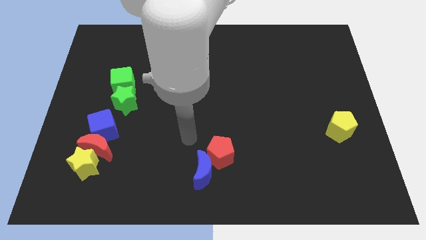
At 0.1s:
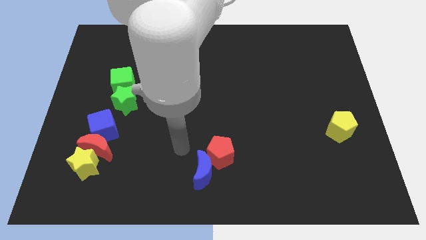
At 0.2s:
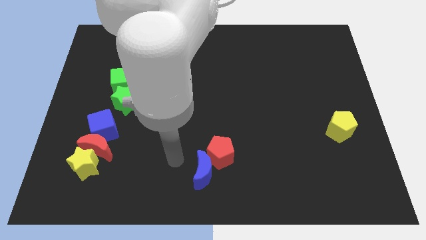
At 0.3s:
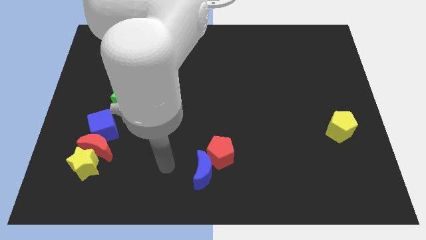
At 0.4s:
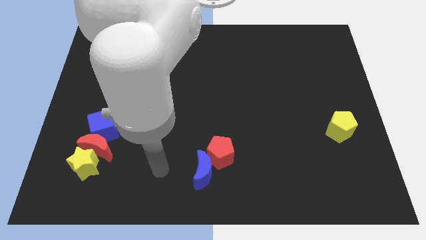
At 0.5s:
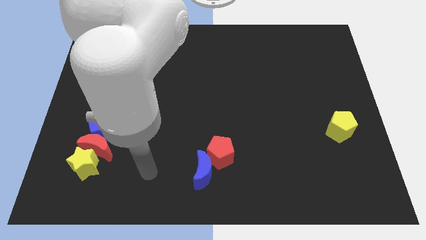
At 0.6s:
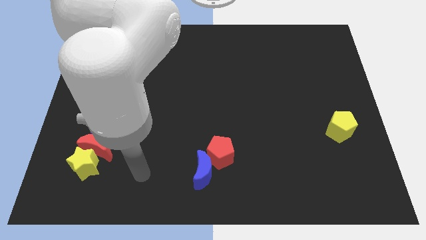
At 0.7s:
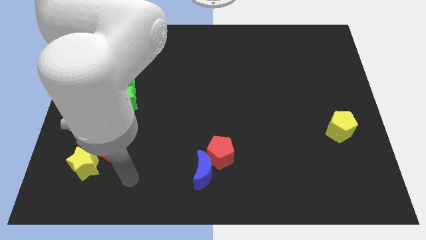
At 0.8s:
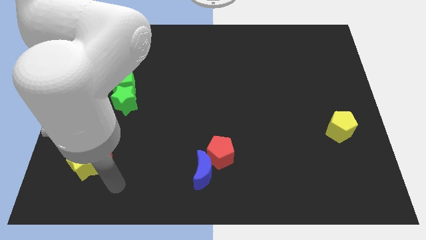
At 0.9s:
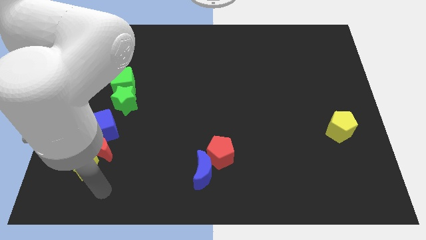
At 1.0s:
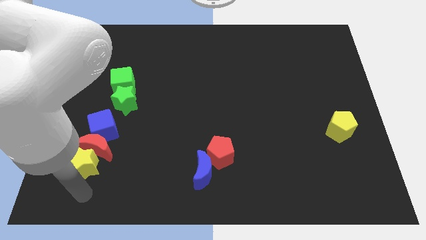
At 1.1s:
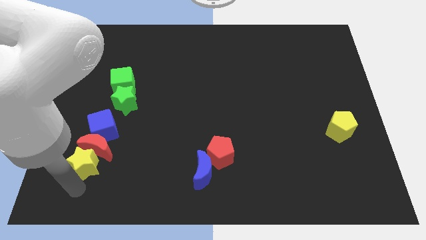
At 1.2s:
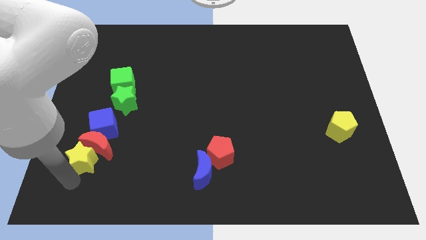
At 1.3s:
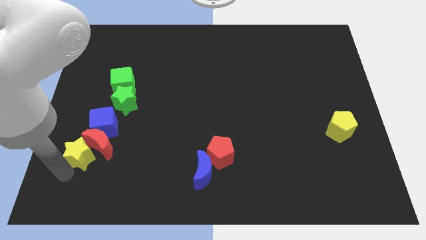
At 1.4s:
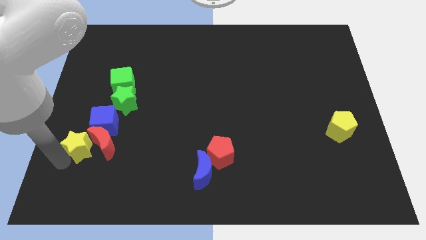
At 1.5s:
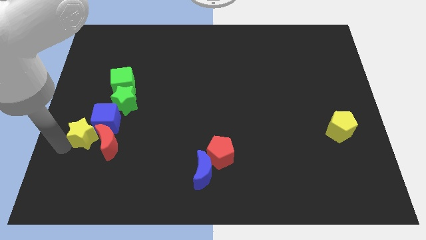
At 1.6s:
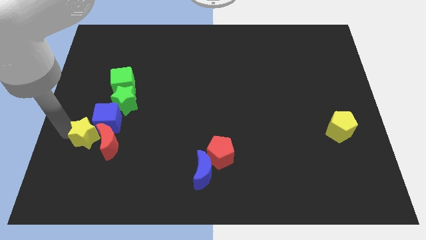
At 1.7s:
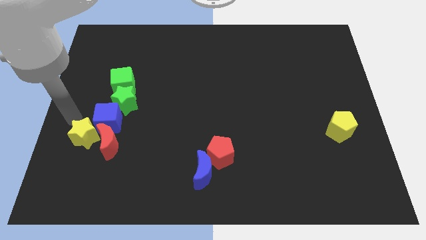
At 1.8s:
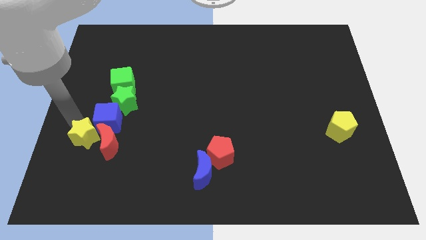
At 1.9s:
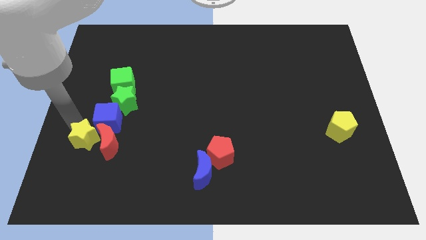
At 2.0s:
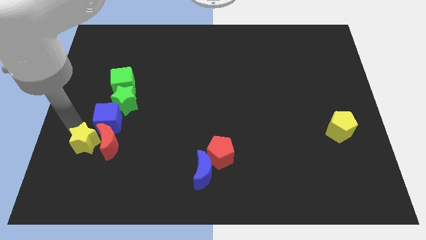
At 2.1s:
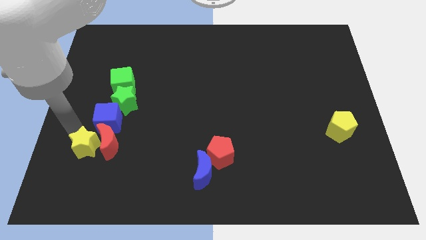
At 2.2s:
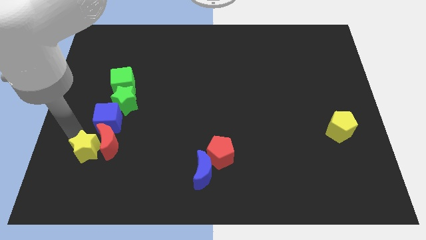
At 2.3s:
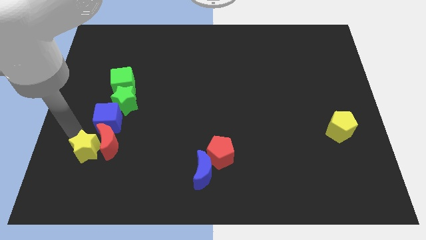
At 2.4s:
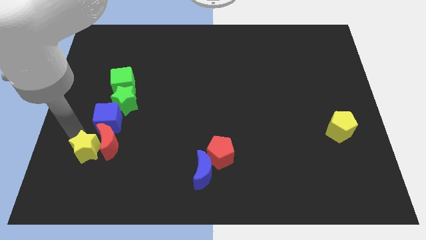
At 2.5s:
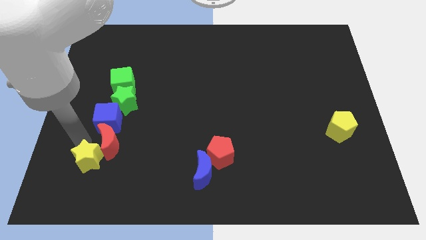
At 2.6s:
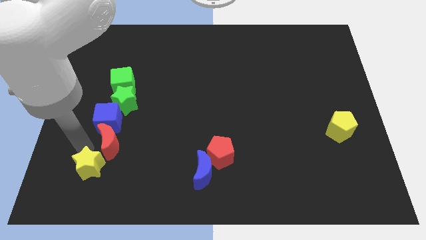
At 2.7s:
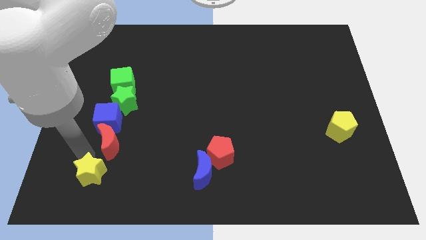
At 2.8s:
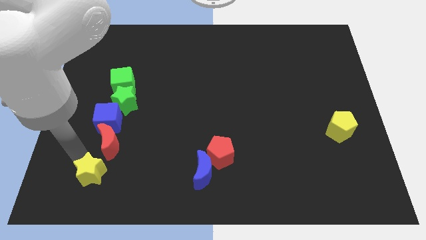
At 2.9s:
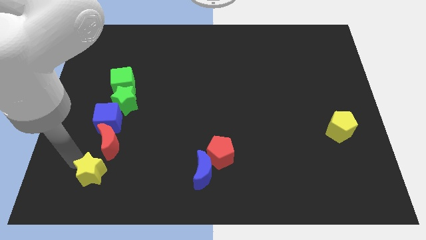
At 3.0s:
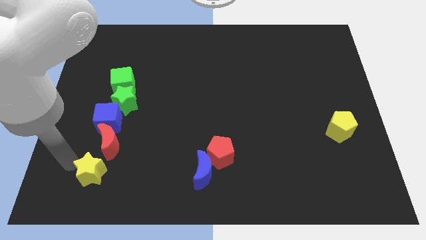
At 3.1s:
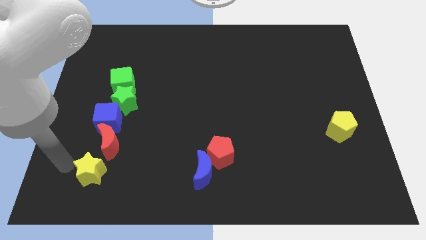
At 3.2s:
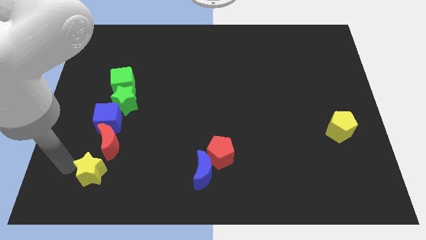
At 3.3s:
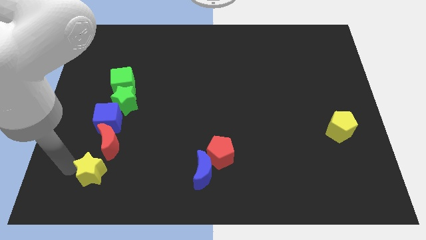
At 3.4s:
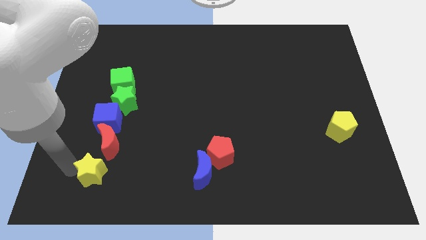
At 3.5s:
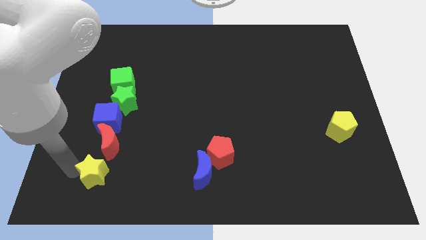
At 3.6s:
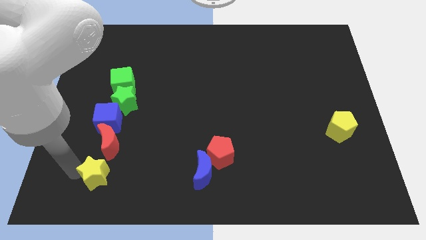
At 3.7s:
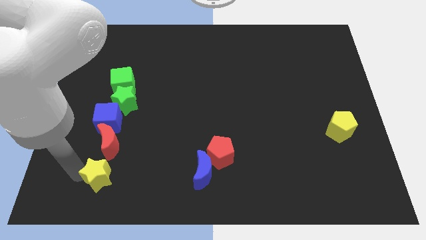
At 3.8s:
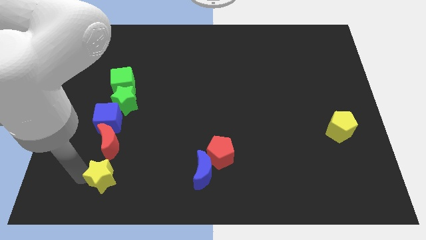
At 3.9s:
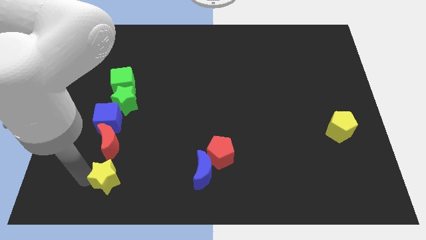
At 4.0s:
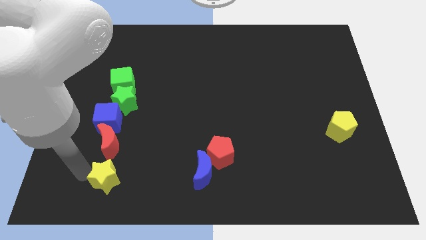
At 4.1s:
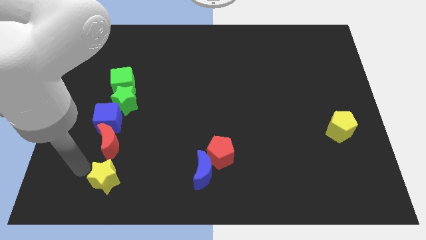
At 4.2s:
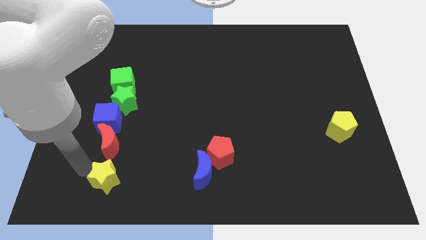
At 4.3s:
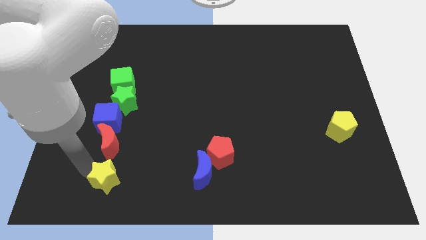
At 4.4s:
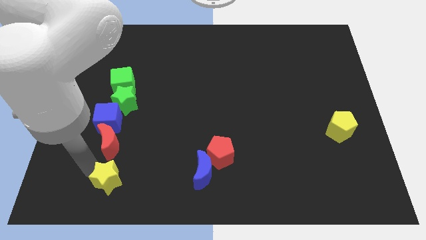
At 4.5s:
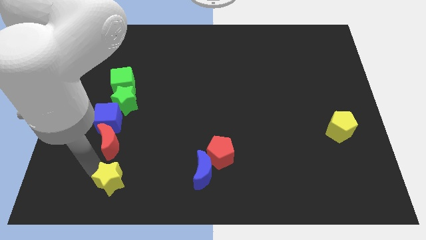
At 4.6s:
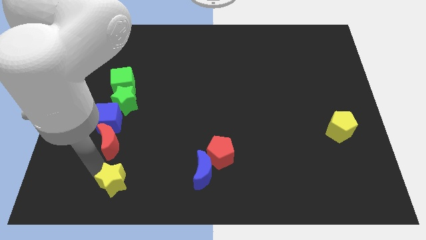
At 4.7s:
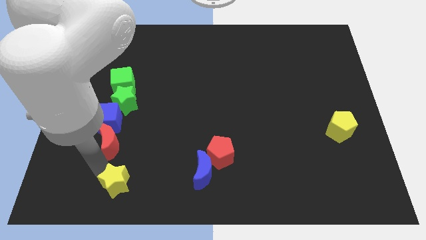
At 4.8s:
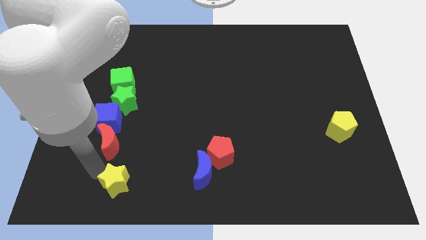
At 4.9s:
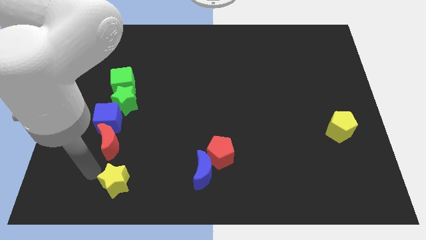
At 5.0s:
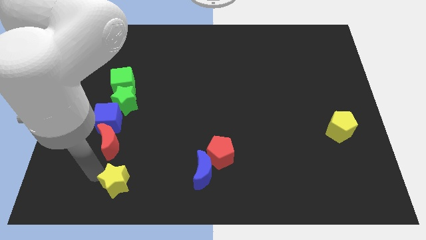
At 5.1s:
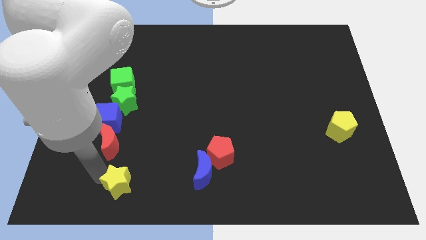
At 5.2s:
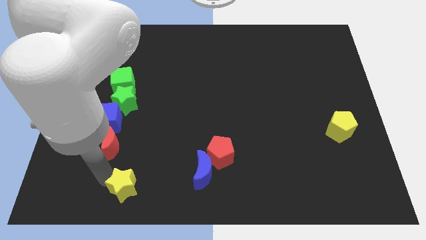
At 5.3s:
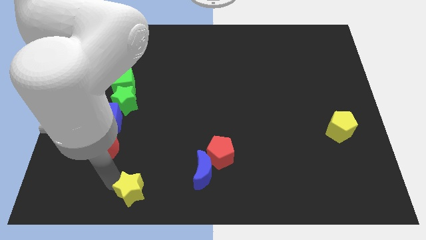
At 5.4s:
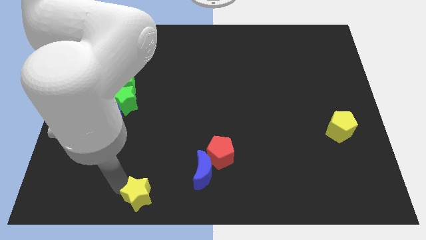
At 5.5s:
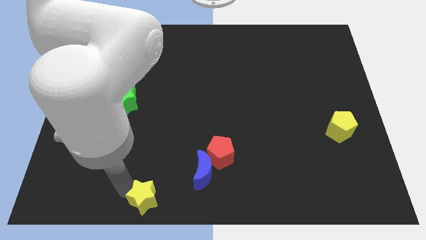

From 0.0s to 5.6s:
put the yellow star to the bottom

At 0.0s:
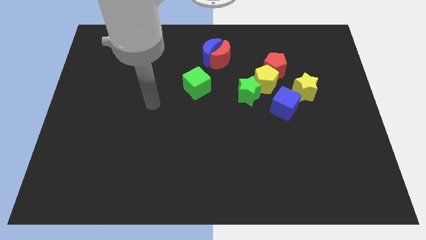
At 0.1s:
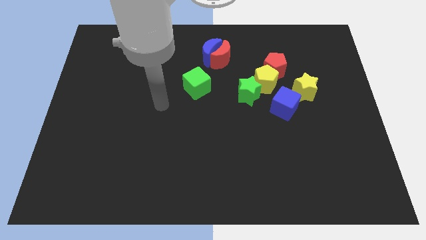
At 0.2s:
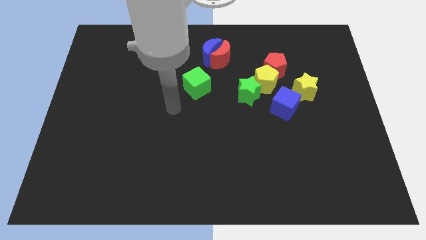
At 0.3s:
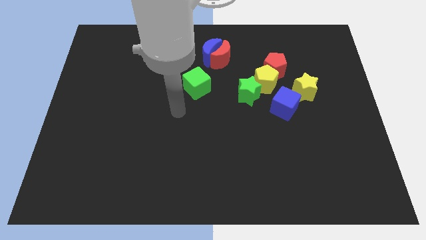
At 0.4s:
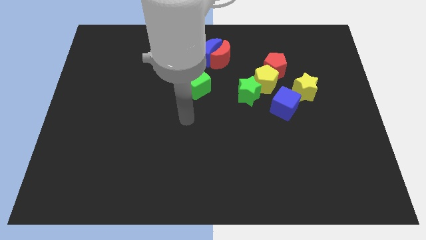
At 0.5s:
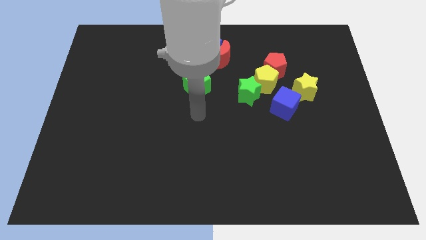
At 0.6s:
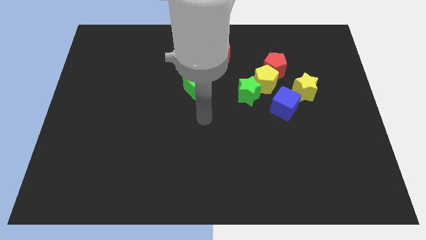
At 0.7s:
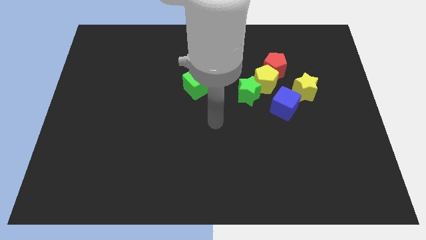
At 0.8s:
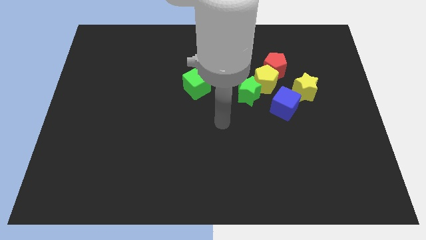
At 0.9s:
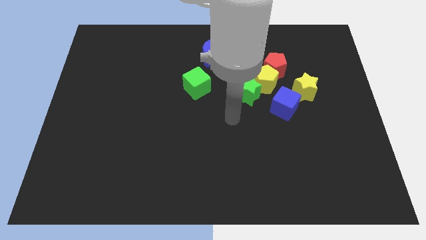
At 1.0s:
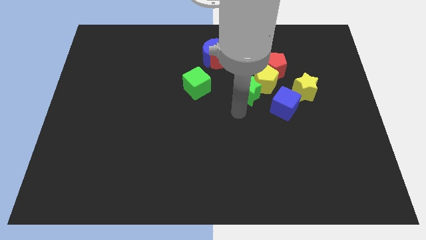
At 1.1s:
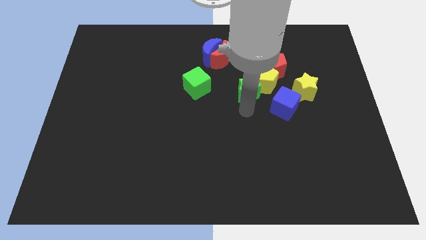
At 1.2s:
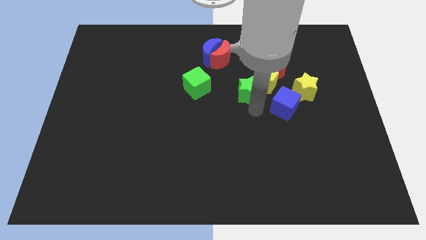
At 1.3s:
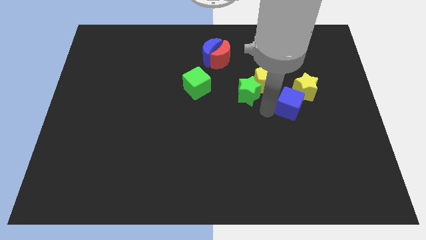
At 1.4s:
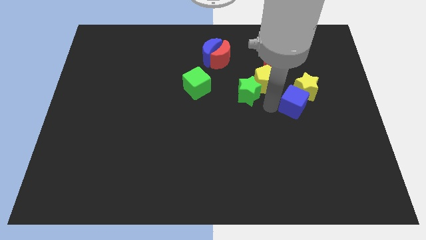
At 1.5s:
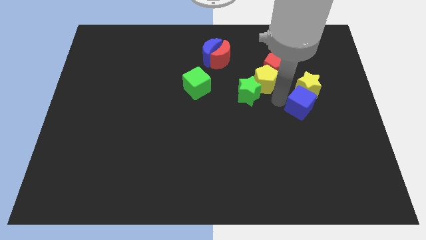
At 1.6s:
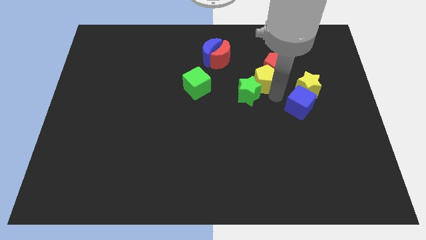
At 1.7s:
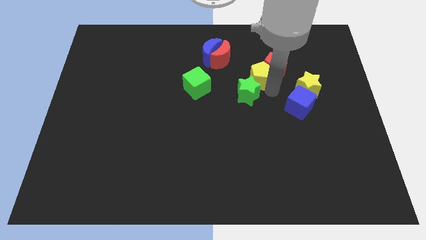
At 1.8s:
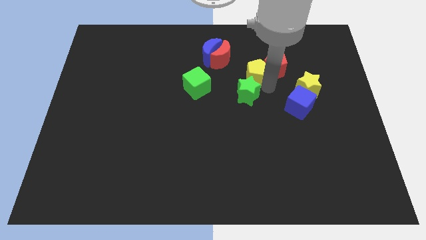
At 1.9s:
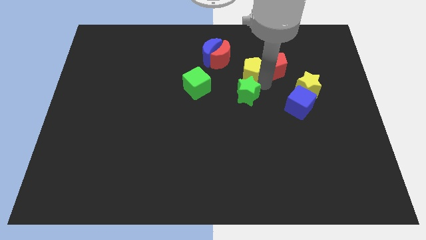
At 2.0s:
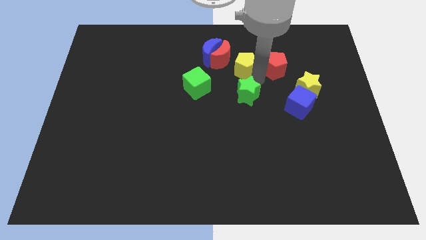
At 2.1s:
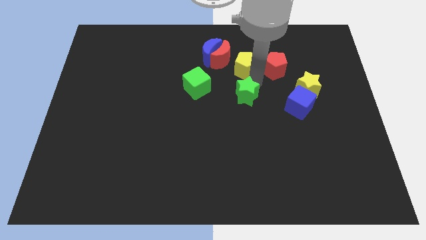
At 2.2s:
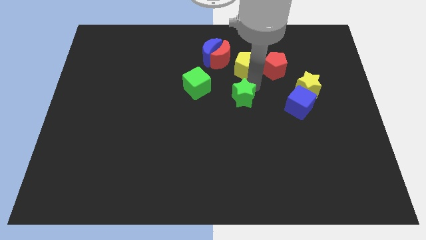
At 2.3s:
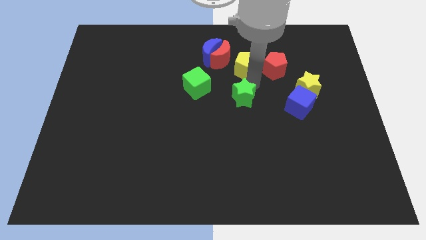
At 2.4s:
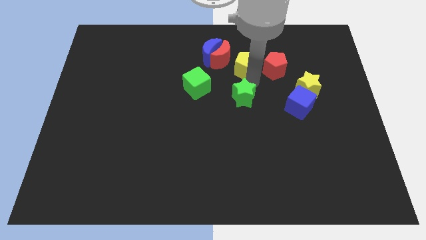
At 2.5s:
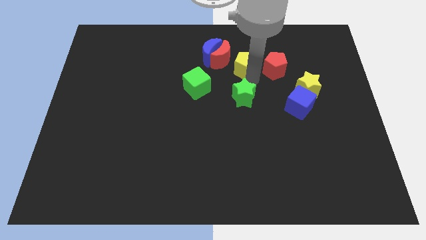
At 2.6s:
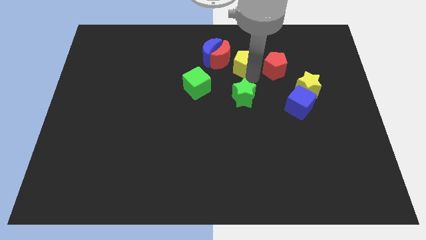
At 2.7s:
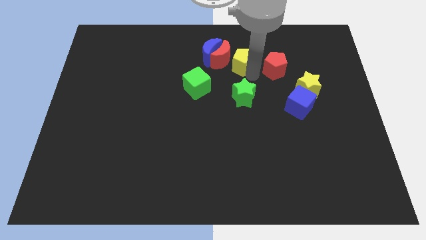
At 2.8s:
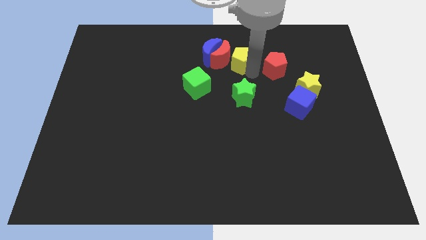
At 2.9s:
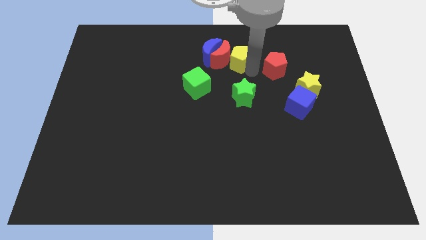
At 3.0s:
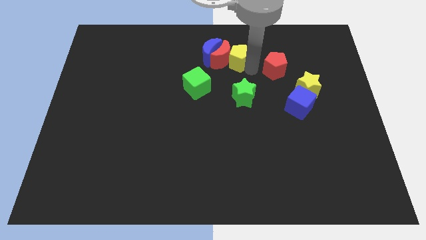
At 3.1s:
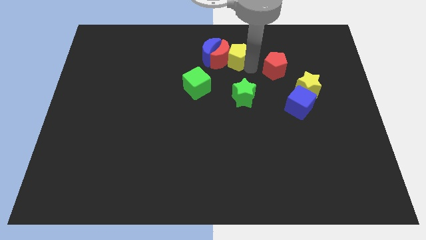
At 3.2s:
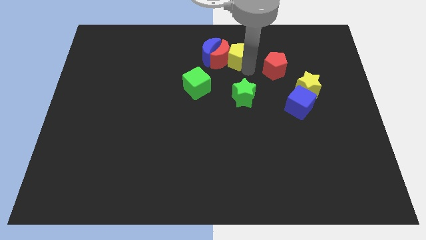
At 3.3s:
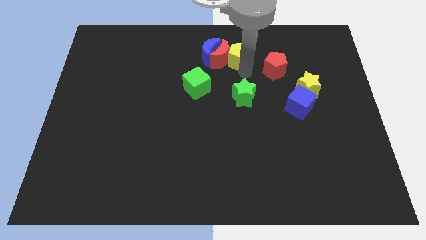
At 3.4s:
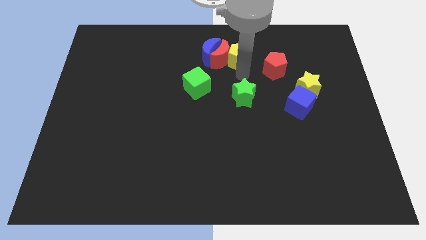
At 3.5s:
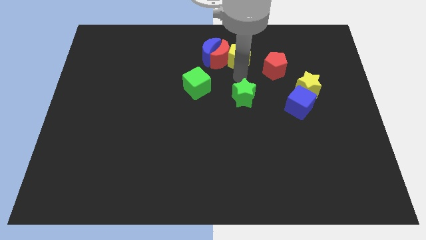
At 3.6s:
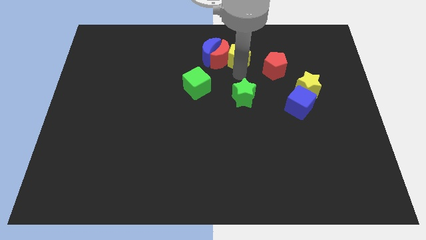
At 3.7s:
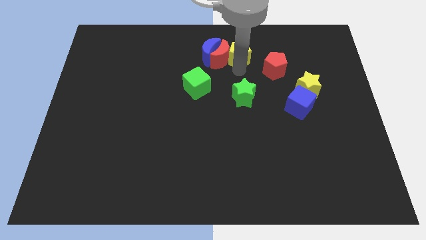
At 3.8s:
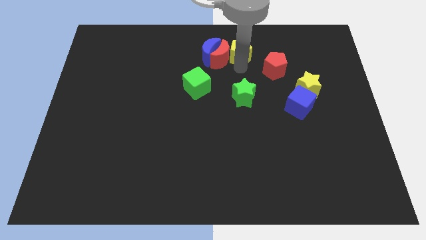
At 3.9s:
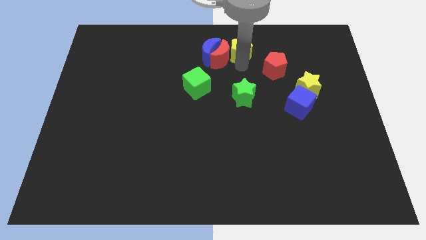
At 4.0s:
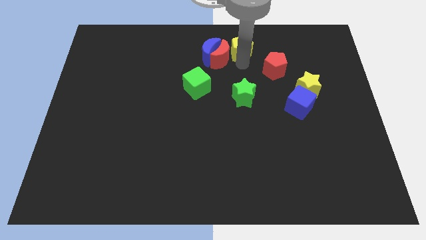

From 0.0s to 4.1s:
move the yellow pentagon to the top
